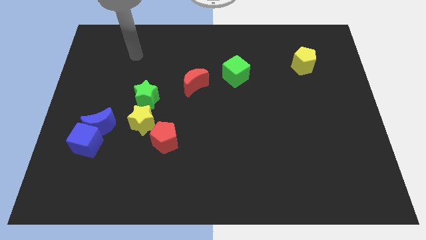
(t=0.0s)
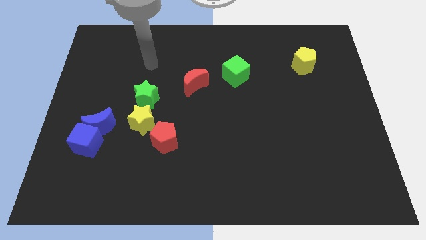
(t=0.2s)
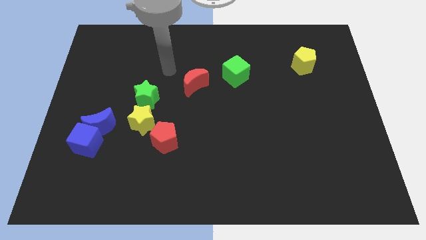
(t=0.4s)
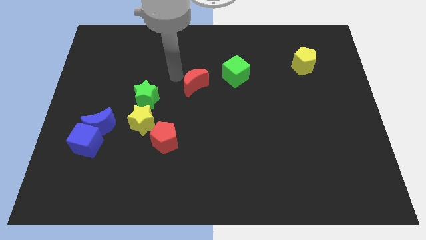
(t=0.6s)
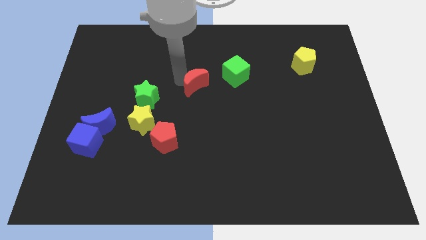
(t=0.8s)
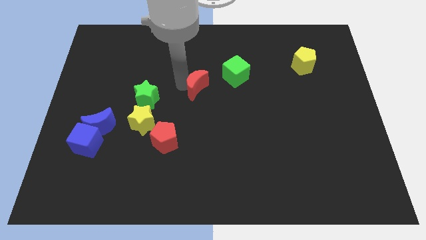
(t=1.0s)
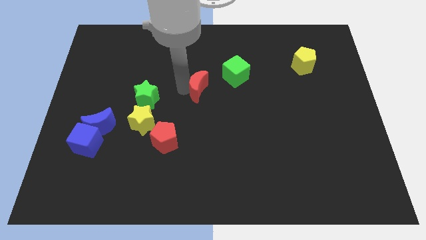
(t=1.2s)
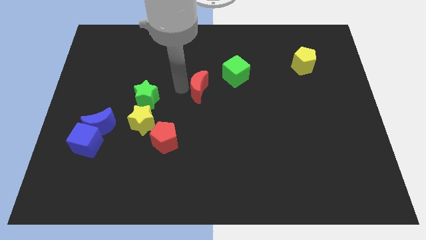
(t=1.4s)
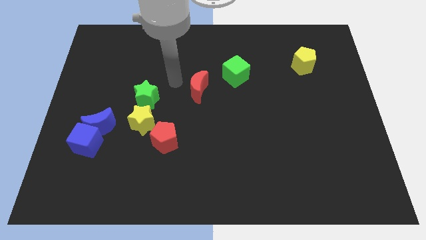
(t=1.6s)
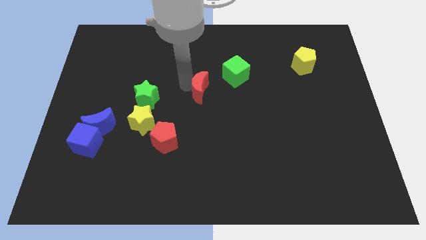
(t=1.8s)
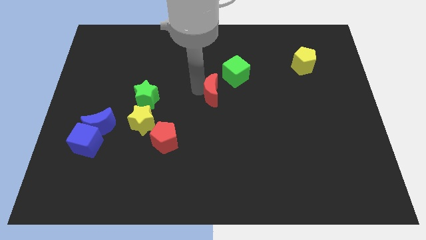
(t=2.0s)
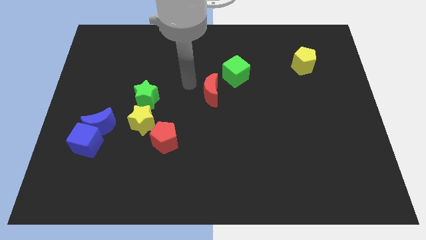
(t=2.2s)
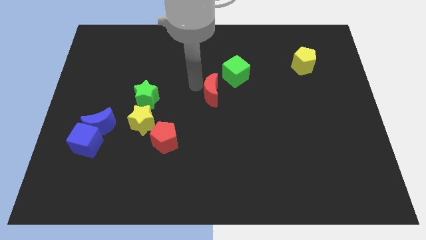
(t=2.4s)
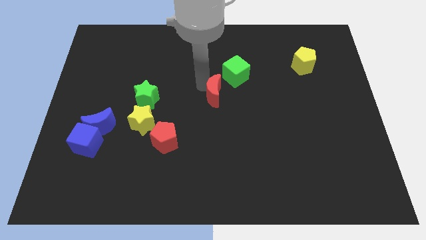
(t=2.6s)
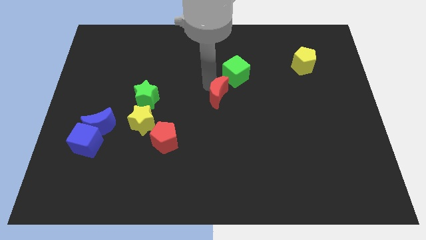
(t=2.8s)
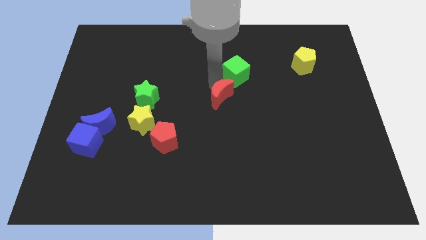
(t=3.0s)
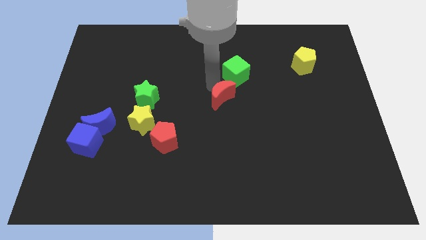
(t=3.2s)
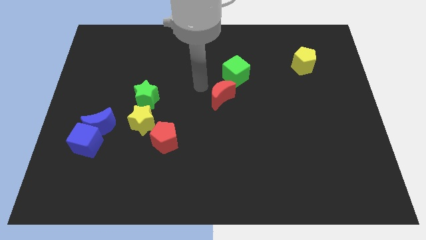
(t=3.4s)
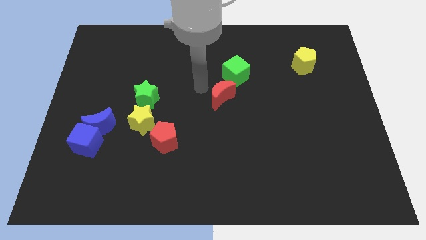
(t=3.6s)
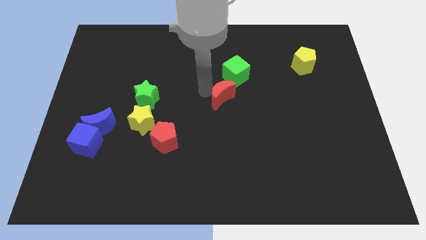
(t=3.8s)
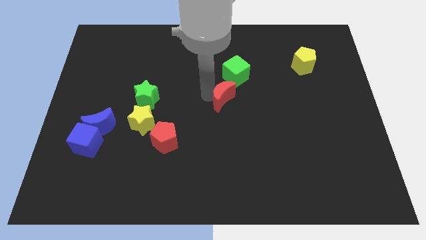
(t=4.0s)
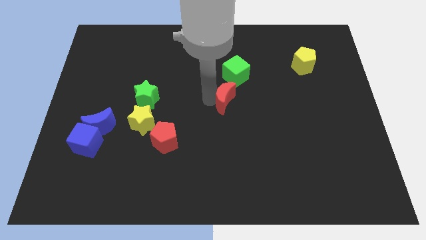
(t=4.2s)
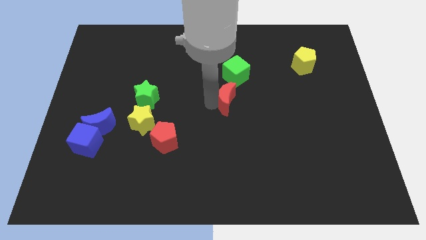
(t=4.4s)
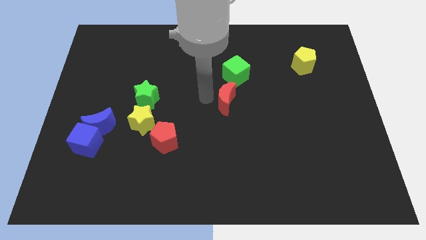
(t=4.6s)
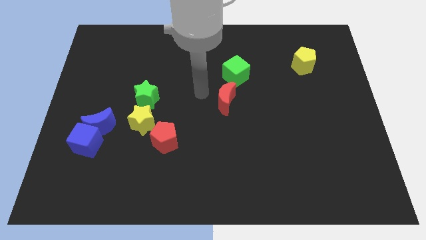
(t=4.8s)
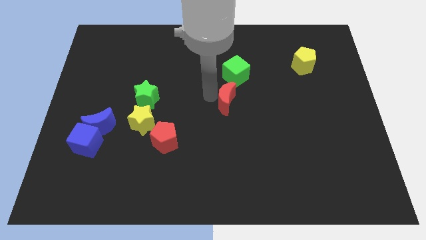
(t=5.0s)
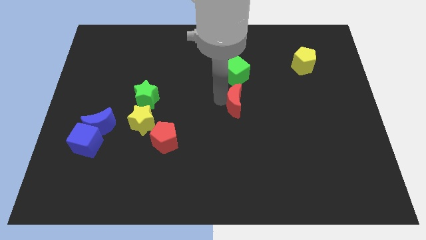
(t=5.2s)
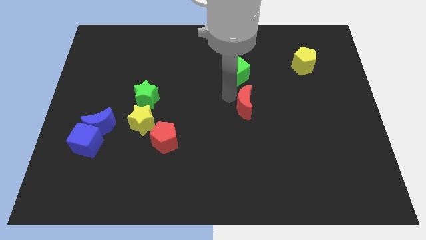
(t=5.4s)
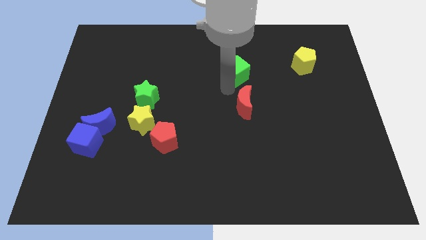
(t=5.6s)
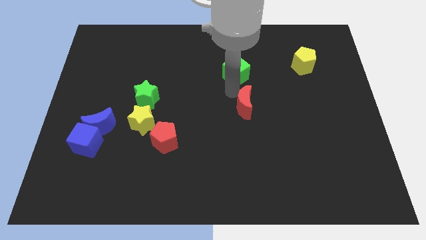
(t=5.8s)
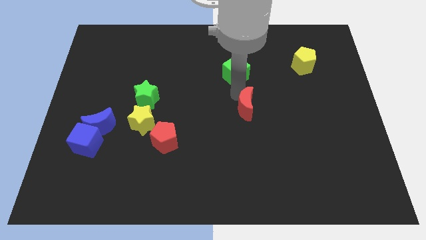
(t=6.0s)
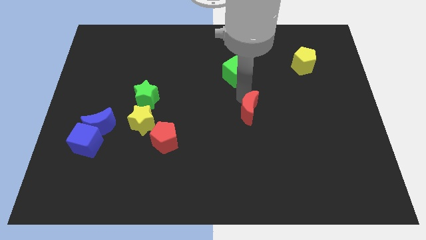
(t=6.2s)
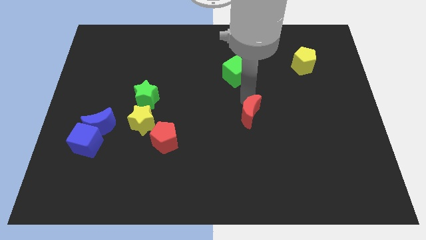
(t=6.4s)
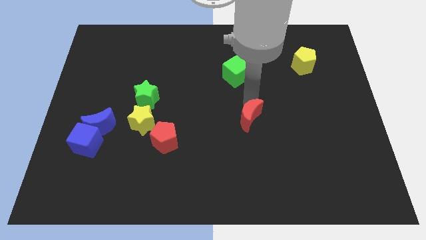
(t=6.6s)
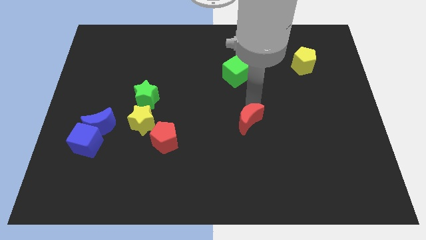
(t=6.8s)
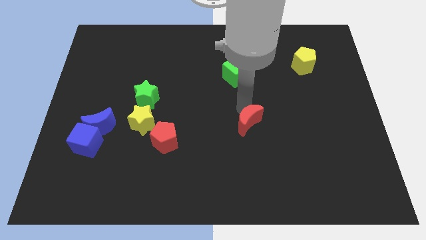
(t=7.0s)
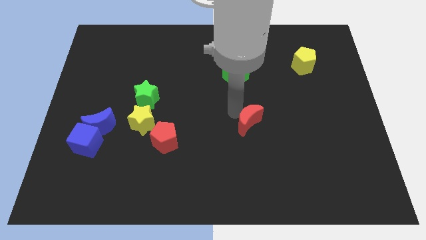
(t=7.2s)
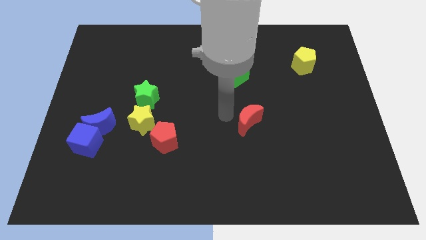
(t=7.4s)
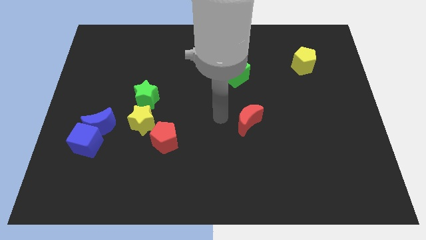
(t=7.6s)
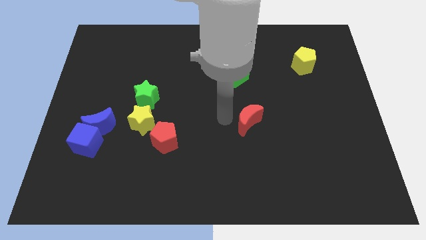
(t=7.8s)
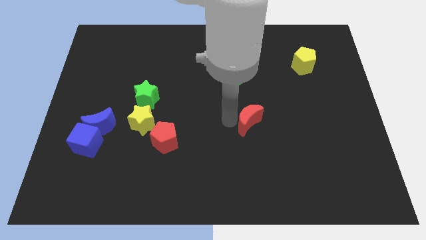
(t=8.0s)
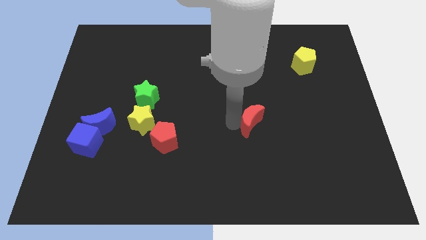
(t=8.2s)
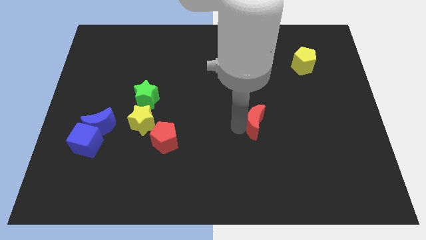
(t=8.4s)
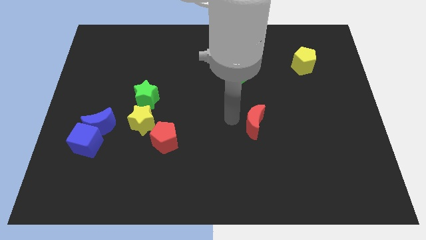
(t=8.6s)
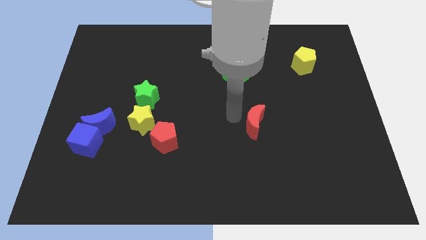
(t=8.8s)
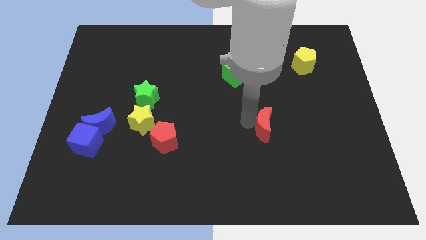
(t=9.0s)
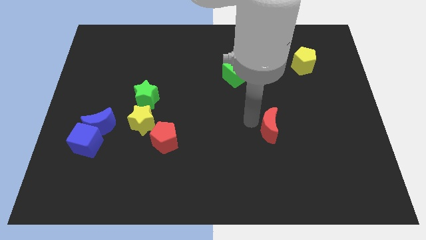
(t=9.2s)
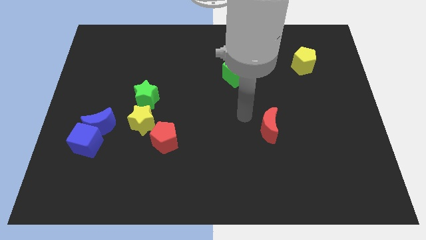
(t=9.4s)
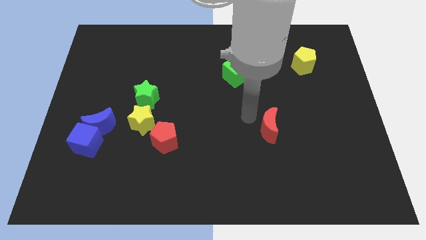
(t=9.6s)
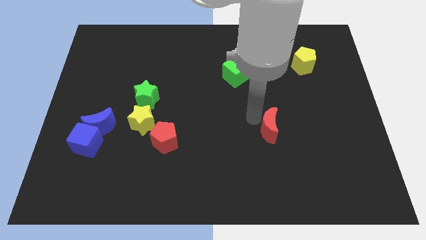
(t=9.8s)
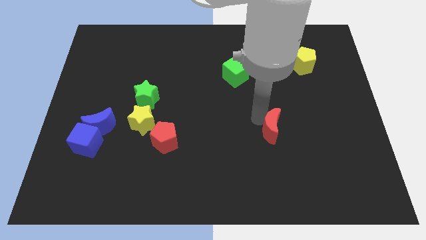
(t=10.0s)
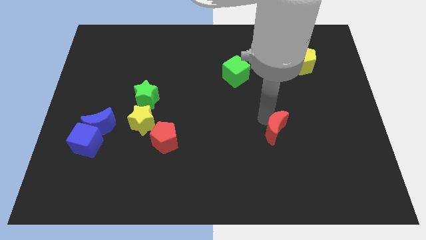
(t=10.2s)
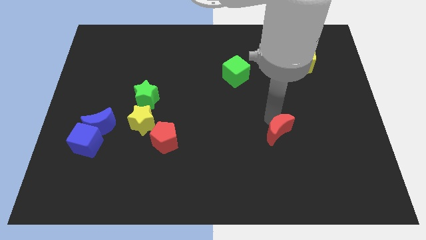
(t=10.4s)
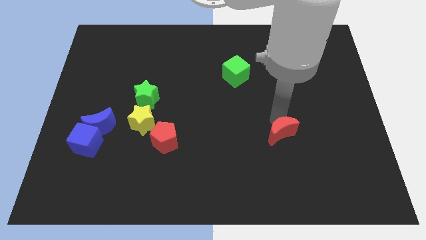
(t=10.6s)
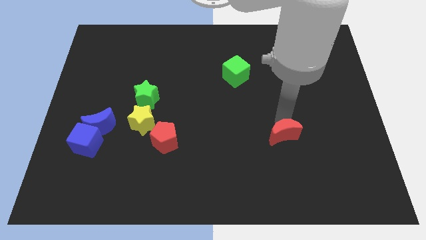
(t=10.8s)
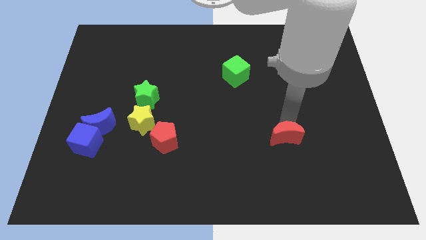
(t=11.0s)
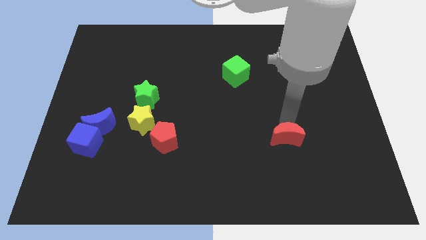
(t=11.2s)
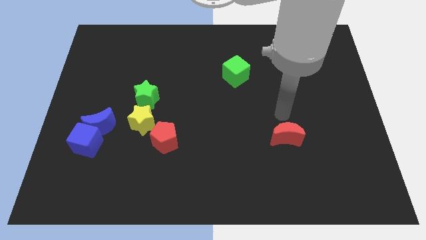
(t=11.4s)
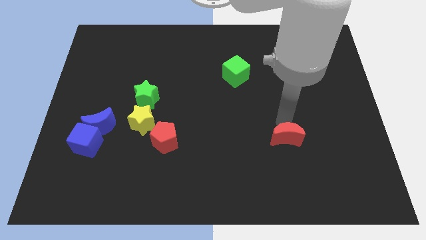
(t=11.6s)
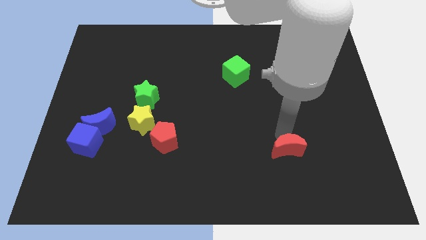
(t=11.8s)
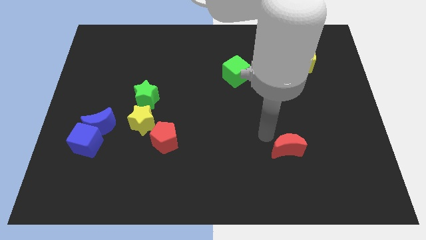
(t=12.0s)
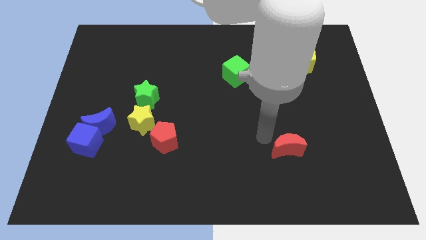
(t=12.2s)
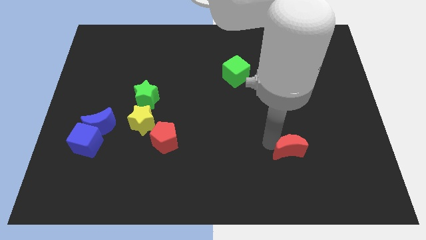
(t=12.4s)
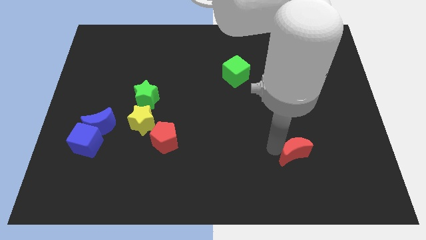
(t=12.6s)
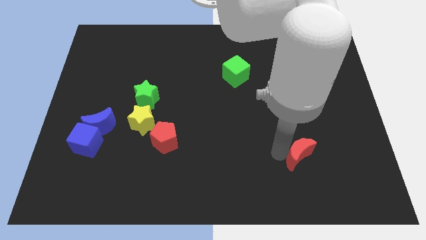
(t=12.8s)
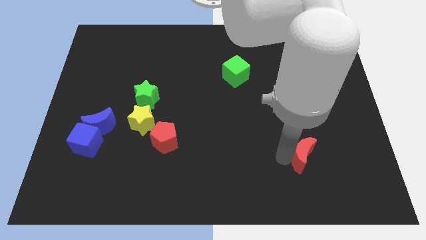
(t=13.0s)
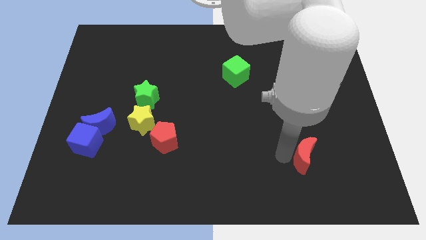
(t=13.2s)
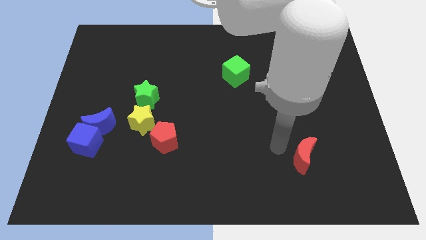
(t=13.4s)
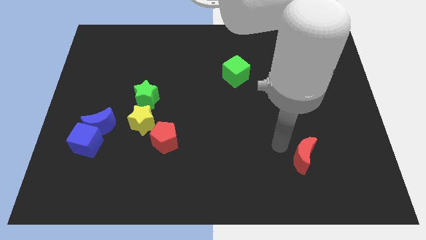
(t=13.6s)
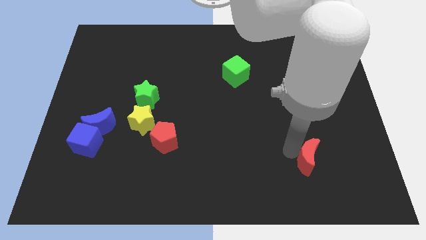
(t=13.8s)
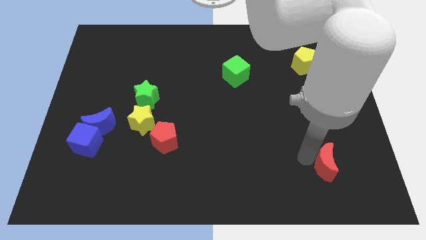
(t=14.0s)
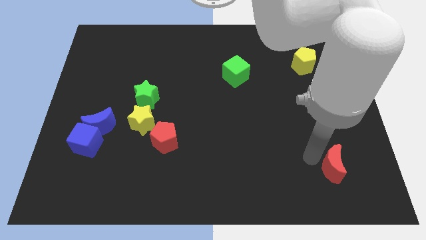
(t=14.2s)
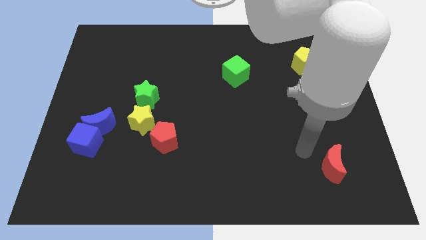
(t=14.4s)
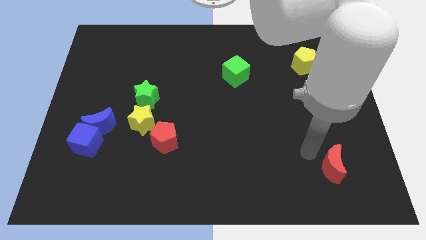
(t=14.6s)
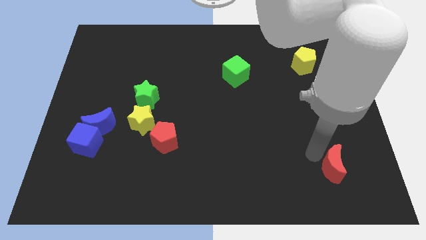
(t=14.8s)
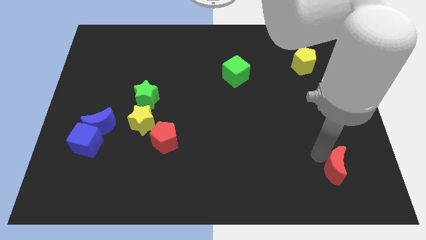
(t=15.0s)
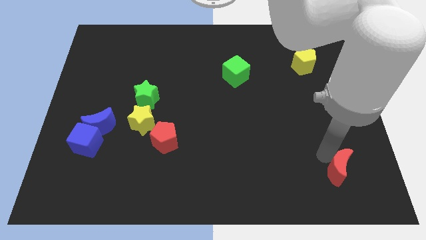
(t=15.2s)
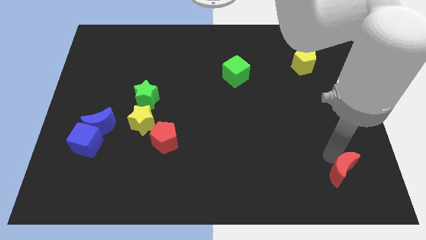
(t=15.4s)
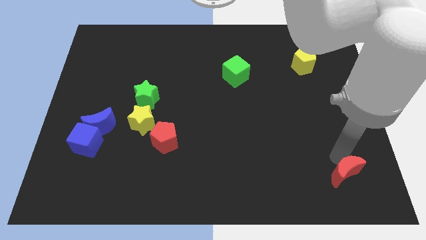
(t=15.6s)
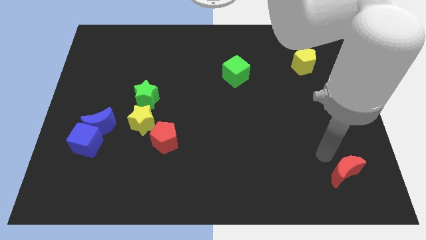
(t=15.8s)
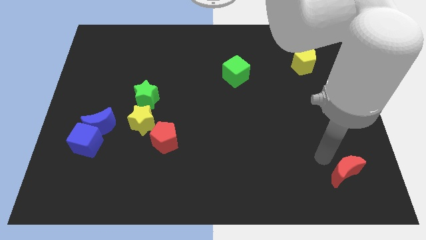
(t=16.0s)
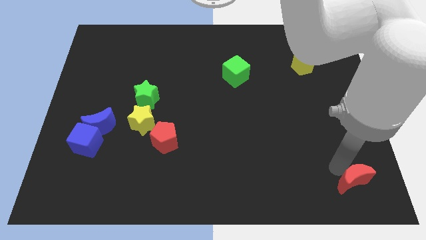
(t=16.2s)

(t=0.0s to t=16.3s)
move the red moon to the bottom right corner
